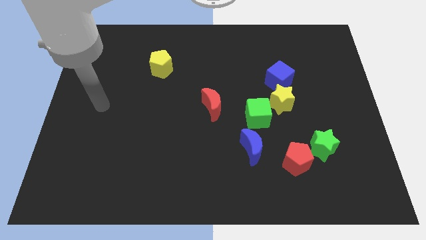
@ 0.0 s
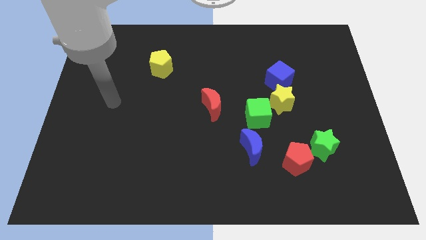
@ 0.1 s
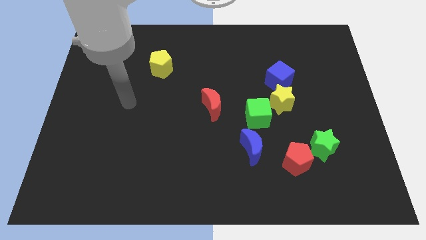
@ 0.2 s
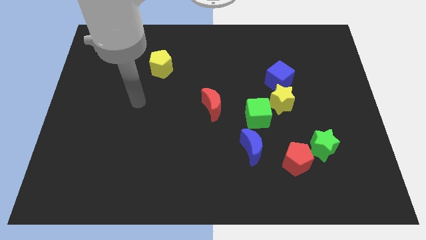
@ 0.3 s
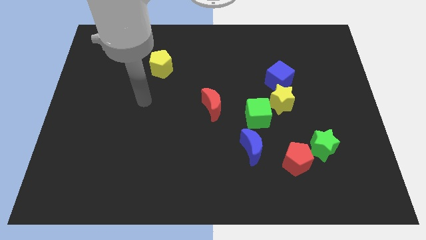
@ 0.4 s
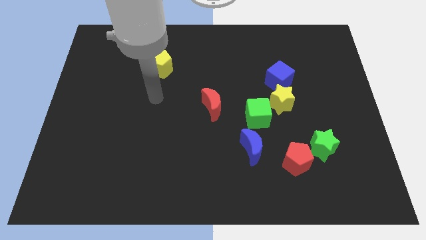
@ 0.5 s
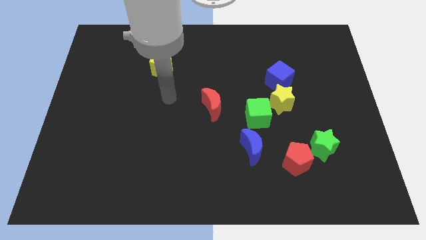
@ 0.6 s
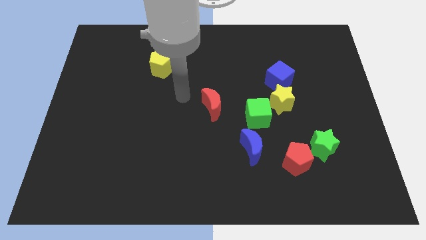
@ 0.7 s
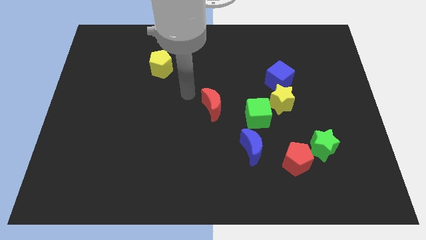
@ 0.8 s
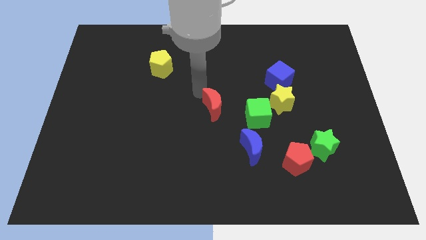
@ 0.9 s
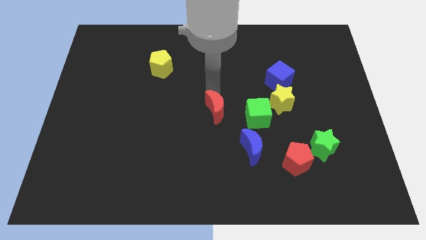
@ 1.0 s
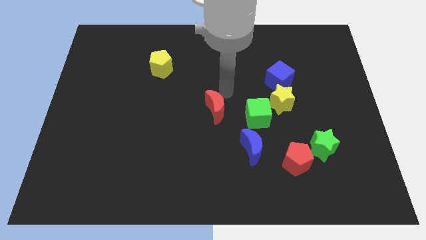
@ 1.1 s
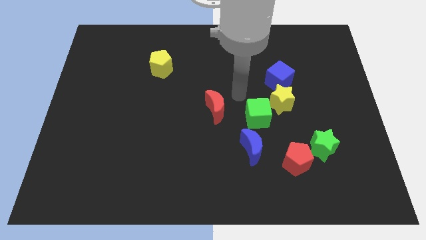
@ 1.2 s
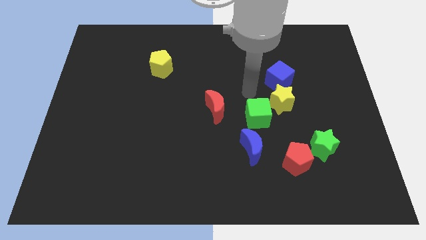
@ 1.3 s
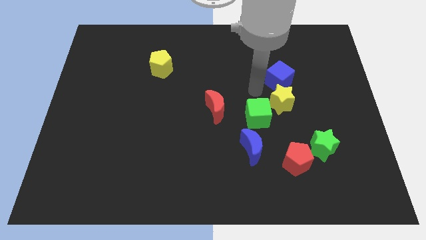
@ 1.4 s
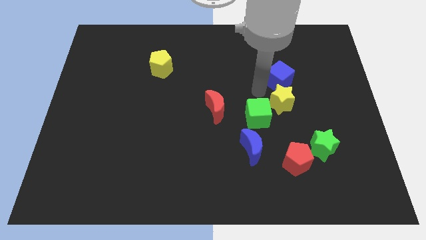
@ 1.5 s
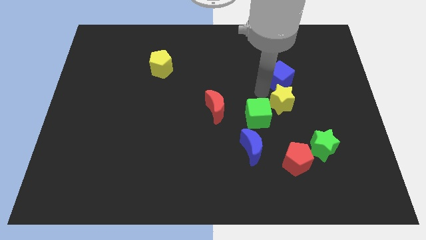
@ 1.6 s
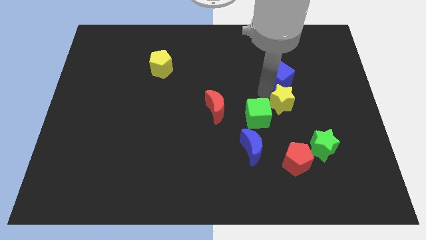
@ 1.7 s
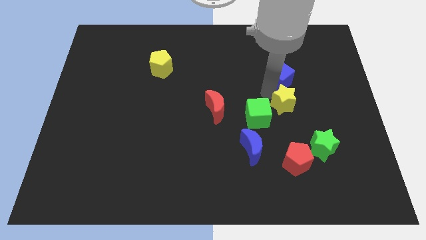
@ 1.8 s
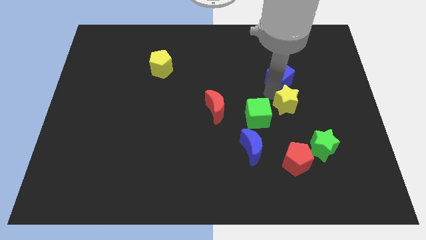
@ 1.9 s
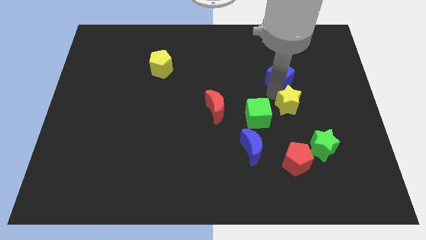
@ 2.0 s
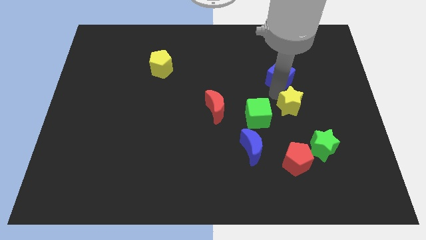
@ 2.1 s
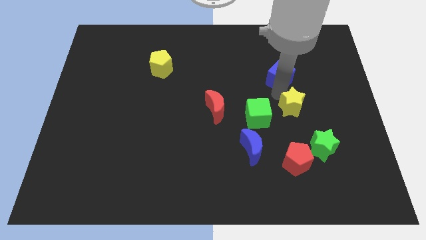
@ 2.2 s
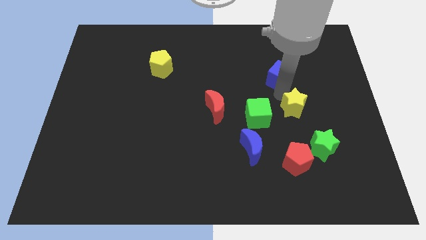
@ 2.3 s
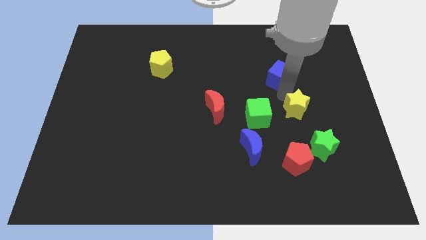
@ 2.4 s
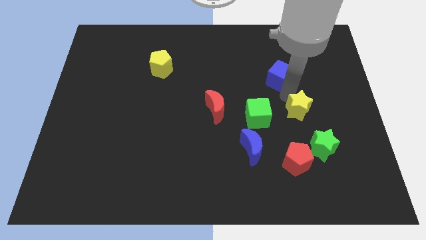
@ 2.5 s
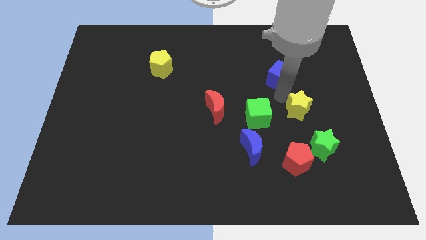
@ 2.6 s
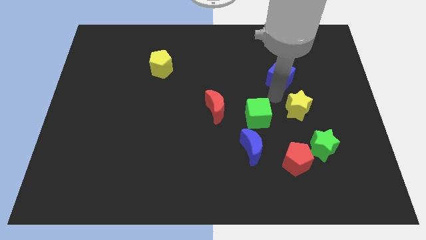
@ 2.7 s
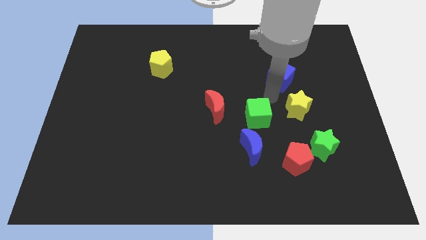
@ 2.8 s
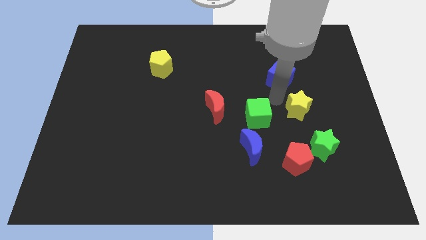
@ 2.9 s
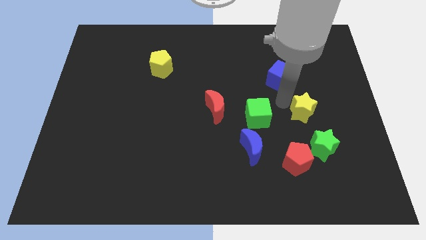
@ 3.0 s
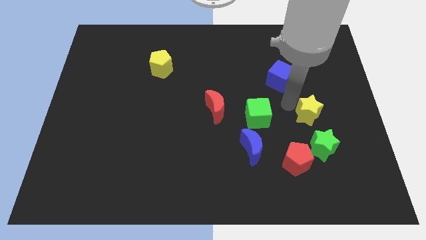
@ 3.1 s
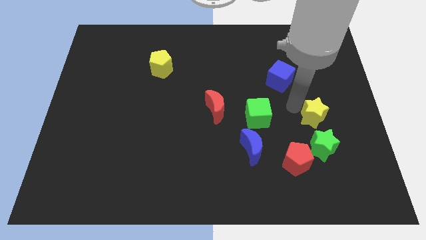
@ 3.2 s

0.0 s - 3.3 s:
pull the yellow star apart from the green cube and blue cube

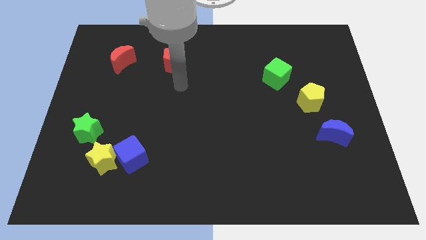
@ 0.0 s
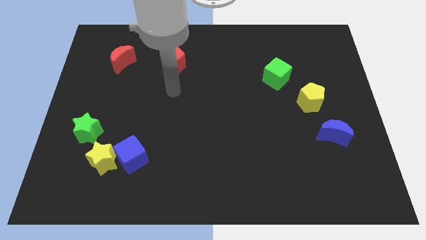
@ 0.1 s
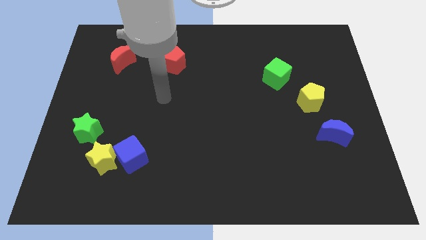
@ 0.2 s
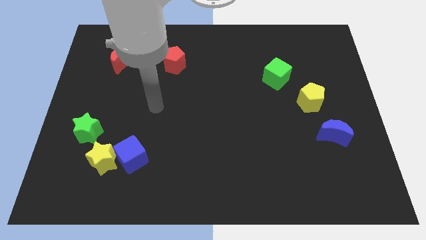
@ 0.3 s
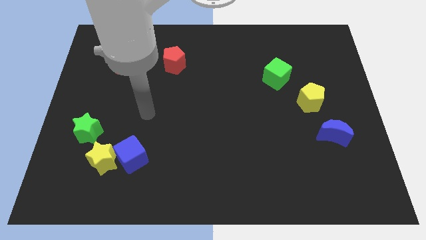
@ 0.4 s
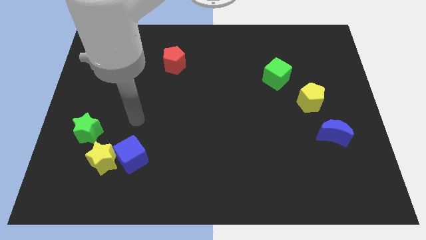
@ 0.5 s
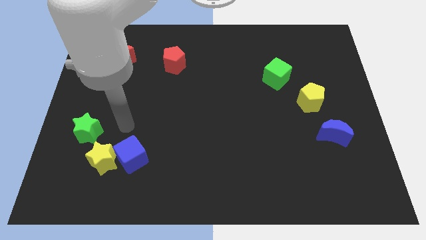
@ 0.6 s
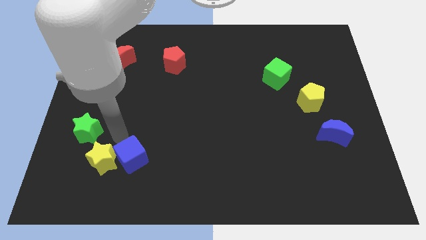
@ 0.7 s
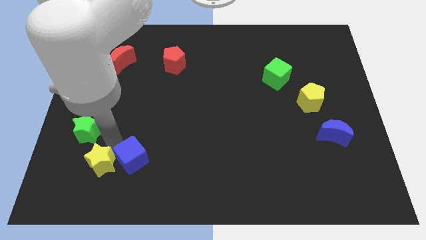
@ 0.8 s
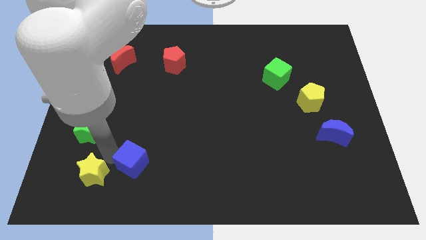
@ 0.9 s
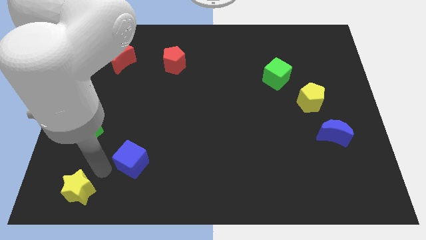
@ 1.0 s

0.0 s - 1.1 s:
separate the blue cube from the yellow star

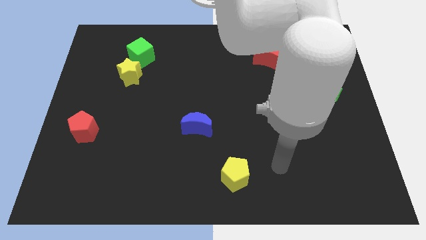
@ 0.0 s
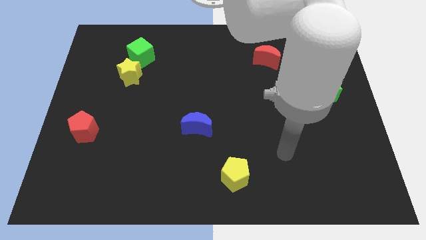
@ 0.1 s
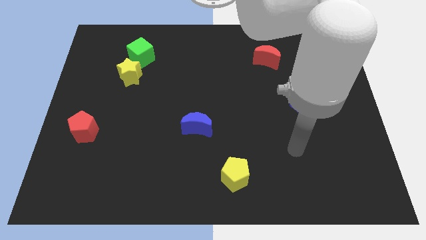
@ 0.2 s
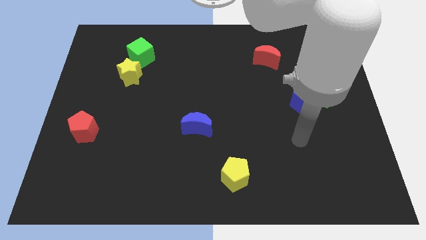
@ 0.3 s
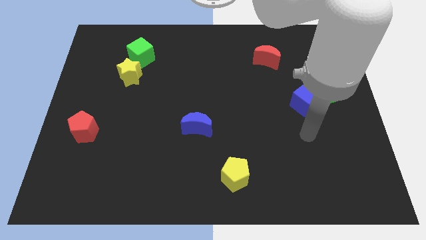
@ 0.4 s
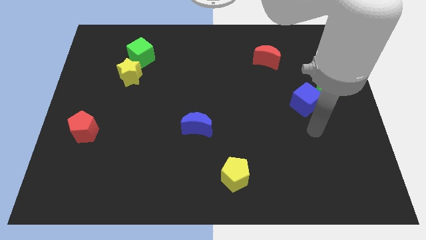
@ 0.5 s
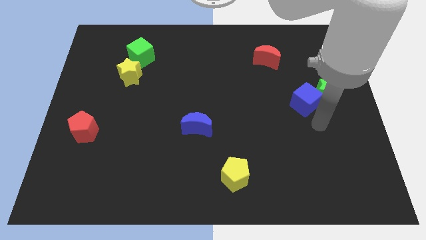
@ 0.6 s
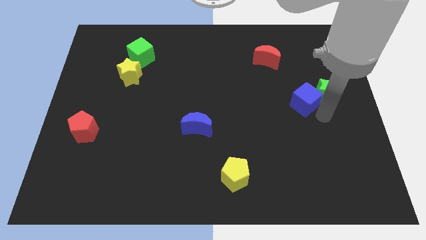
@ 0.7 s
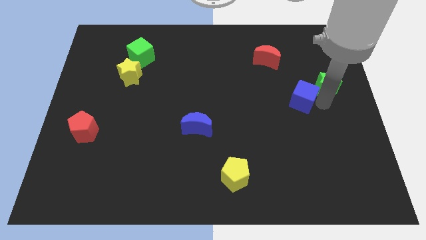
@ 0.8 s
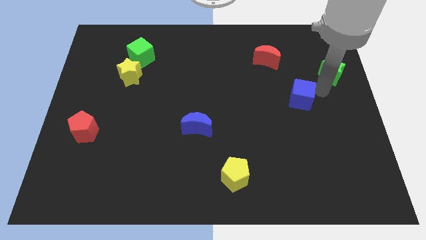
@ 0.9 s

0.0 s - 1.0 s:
pull the blue cube apart from the green star

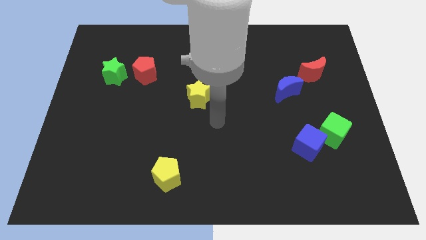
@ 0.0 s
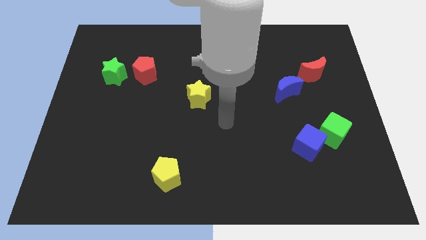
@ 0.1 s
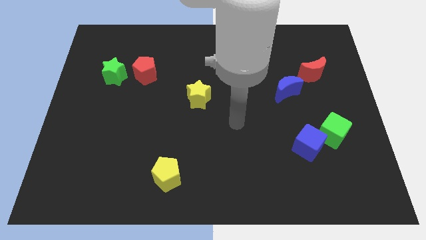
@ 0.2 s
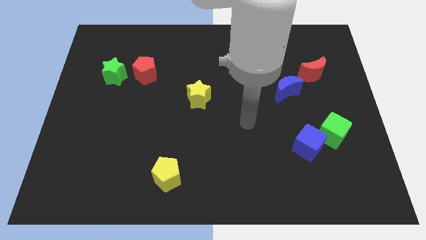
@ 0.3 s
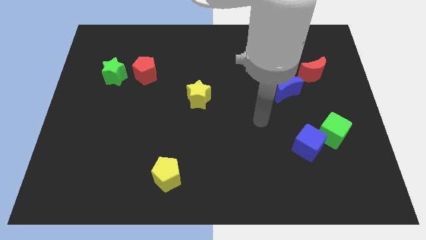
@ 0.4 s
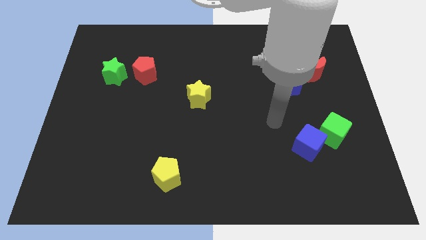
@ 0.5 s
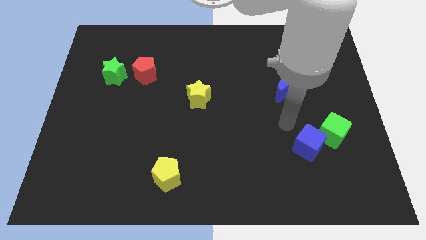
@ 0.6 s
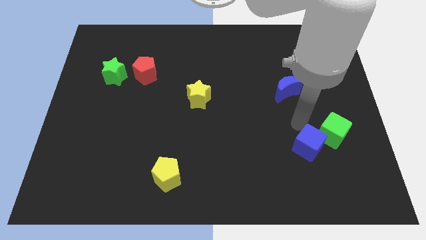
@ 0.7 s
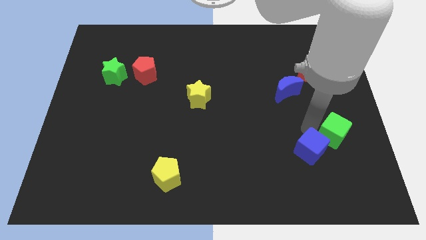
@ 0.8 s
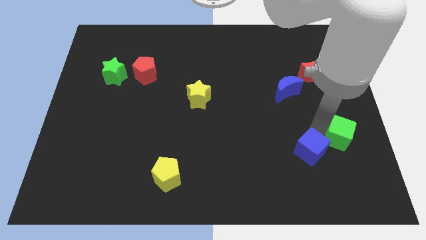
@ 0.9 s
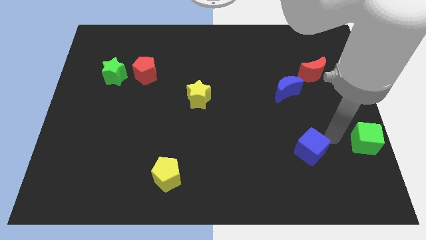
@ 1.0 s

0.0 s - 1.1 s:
move the blue cube away from the green cube

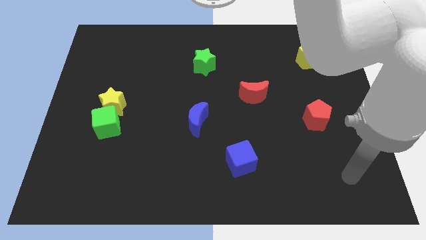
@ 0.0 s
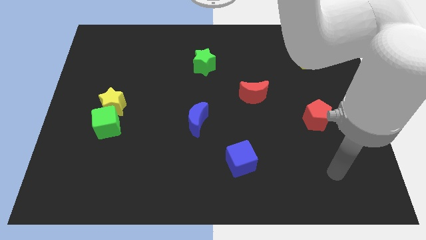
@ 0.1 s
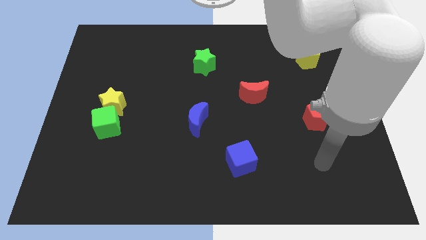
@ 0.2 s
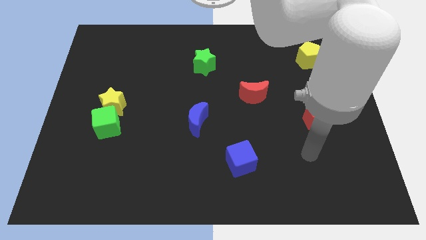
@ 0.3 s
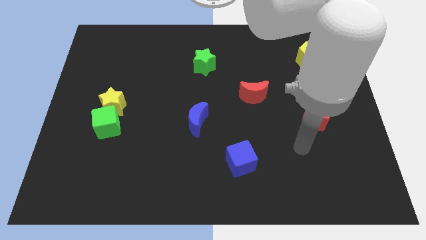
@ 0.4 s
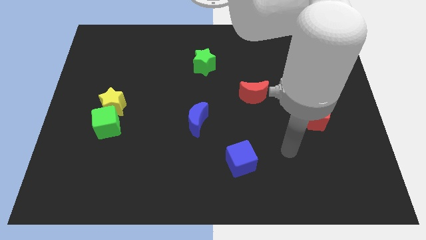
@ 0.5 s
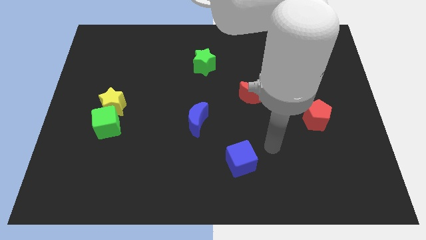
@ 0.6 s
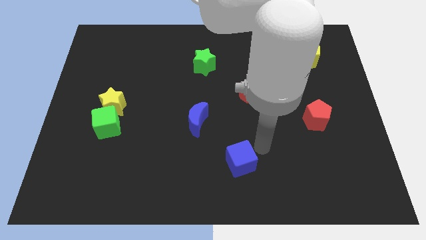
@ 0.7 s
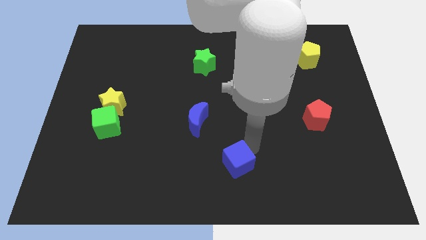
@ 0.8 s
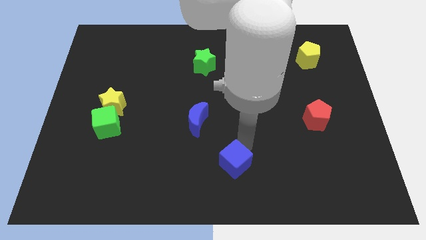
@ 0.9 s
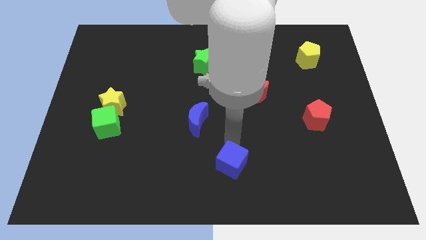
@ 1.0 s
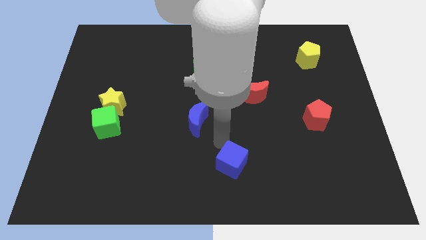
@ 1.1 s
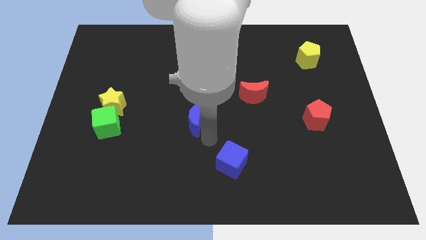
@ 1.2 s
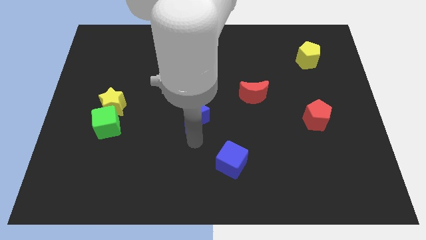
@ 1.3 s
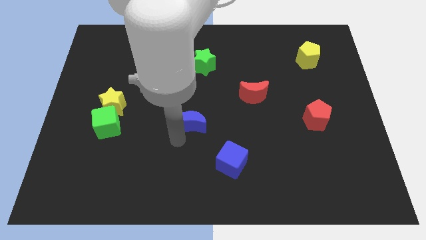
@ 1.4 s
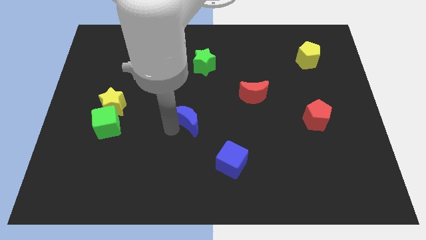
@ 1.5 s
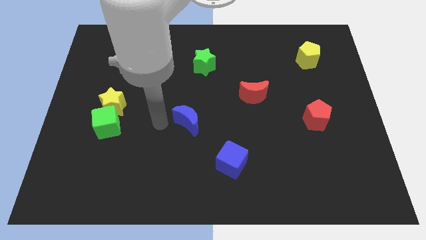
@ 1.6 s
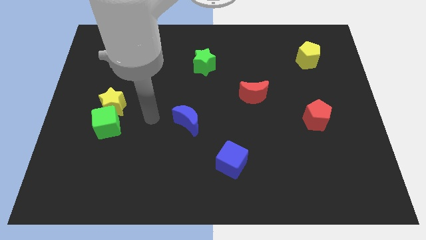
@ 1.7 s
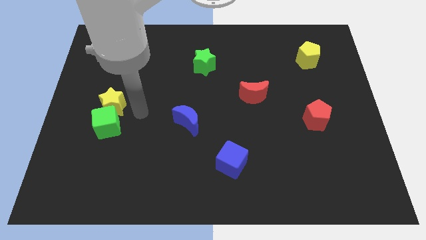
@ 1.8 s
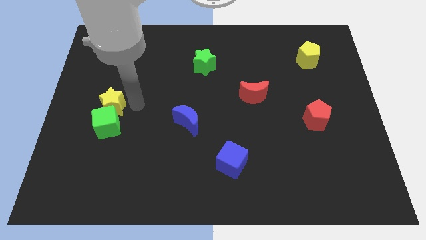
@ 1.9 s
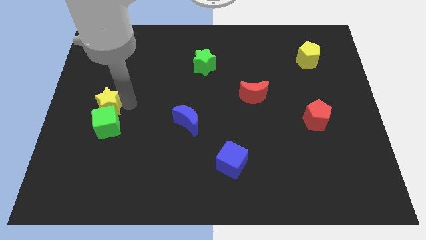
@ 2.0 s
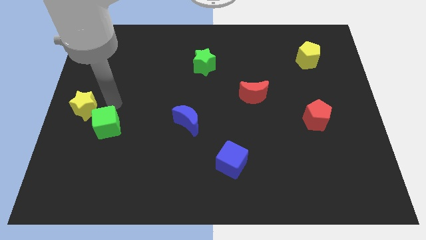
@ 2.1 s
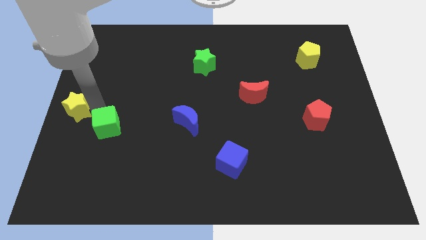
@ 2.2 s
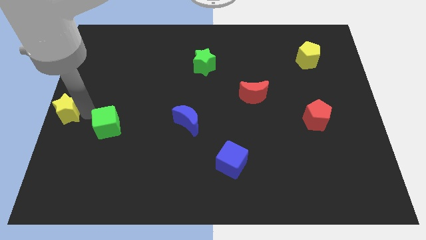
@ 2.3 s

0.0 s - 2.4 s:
move the green cube away from the yellow star

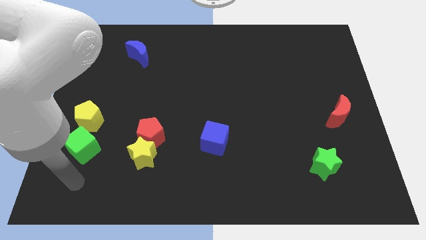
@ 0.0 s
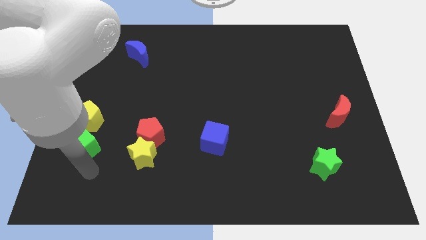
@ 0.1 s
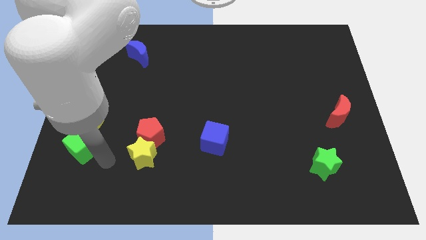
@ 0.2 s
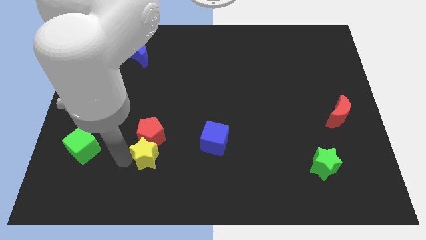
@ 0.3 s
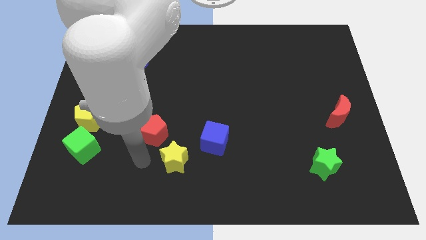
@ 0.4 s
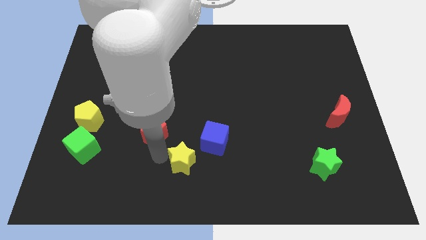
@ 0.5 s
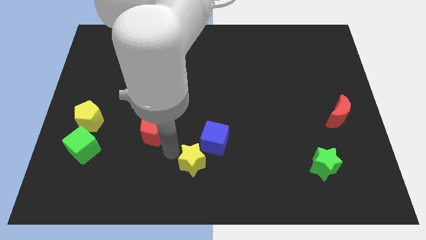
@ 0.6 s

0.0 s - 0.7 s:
separate the red pentagon from the yellow star
